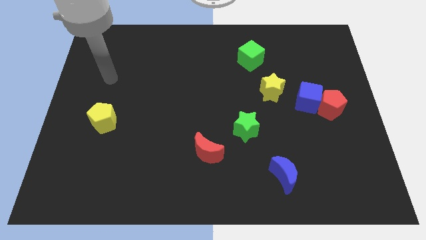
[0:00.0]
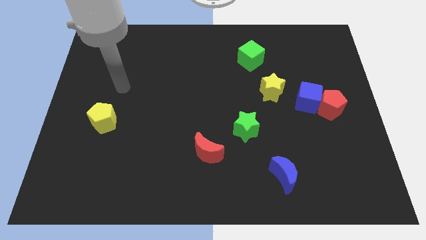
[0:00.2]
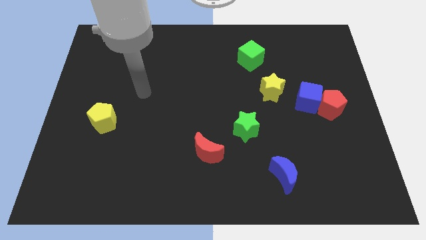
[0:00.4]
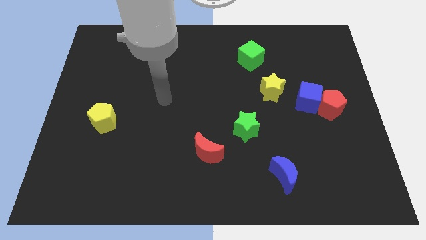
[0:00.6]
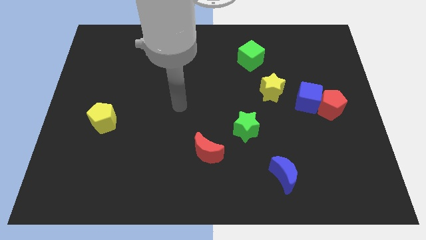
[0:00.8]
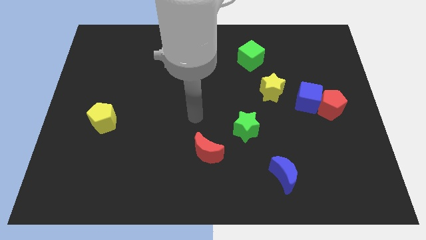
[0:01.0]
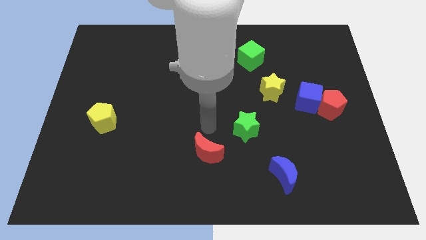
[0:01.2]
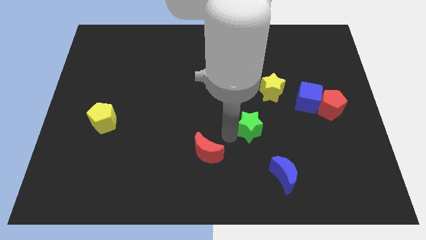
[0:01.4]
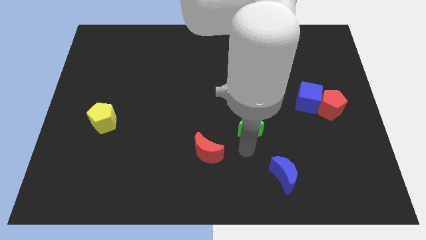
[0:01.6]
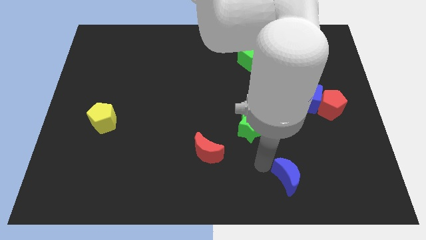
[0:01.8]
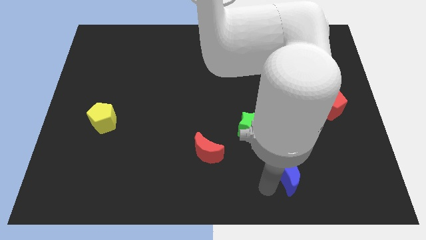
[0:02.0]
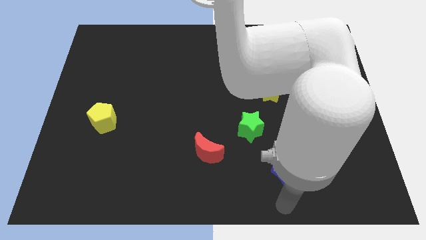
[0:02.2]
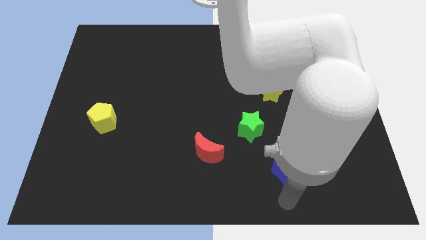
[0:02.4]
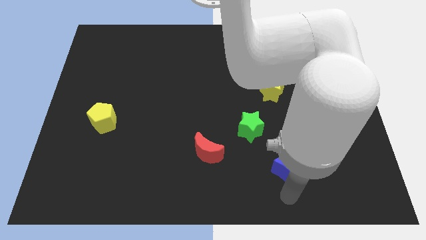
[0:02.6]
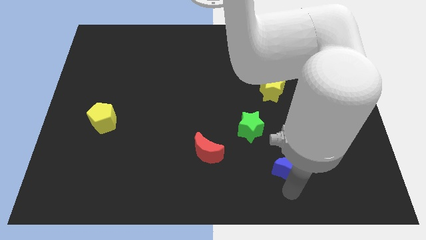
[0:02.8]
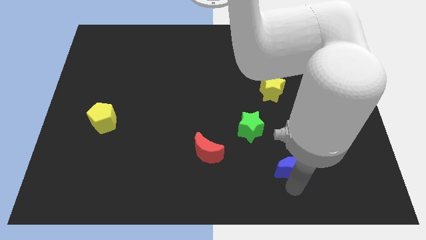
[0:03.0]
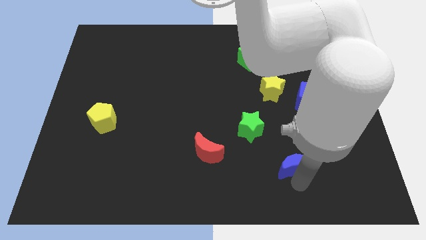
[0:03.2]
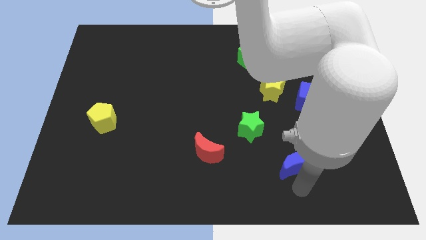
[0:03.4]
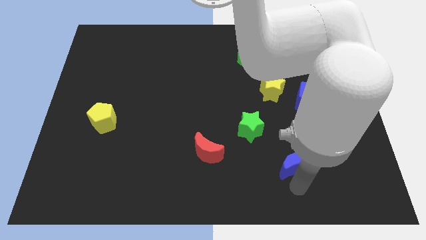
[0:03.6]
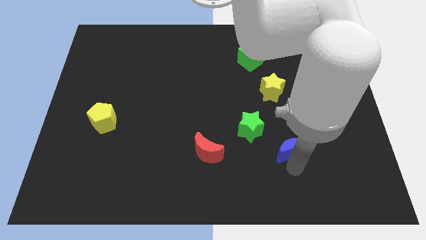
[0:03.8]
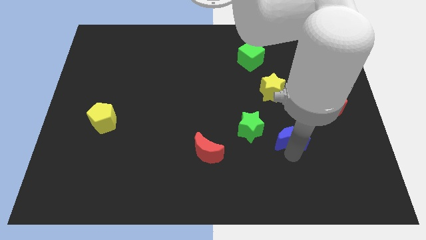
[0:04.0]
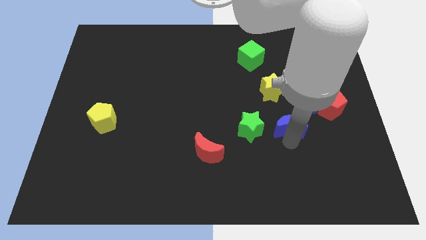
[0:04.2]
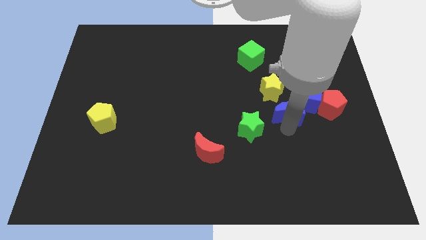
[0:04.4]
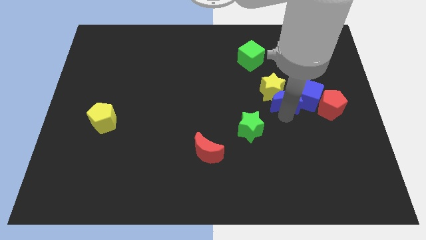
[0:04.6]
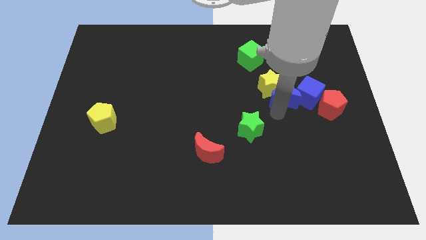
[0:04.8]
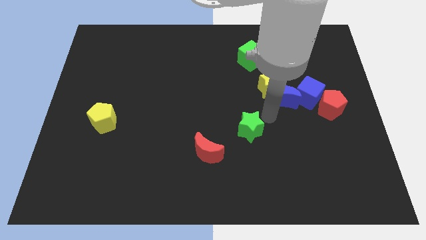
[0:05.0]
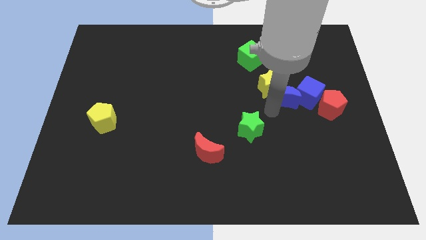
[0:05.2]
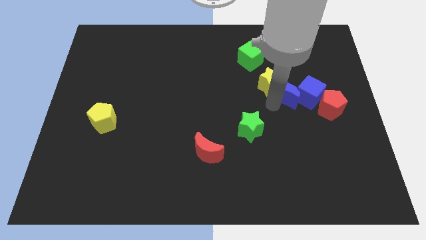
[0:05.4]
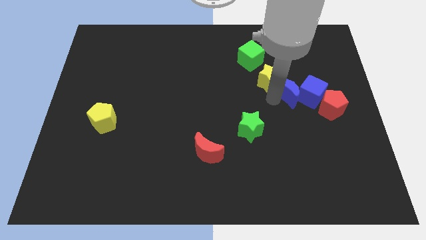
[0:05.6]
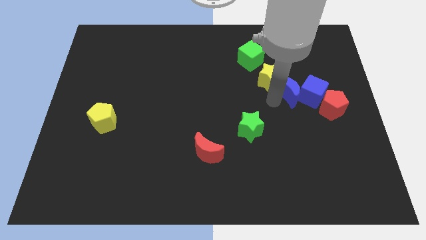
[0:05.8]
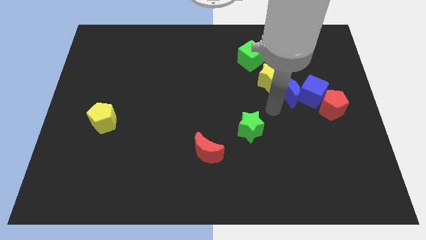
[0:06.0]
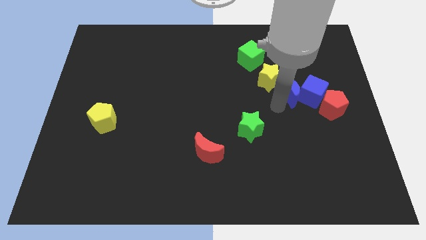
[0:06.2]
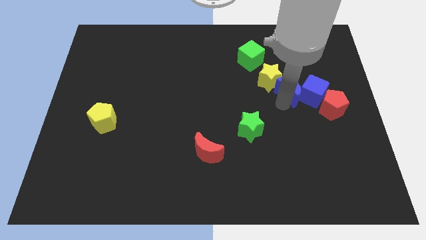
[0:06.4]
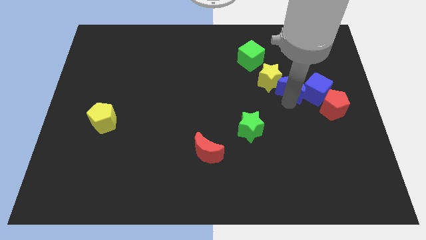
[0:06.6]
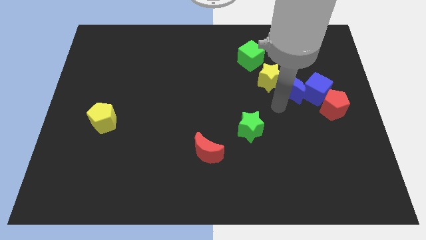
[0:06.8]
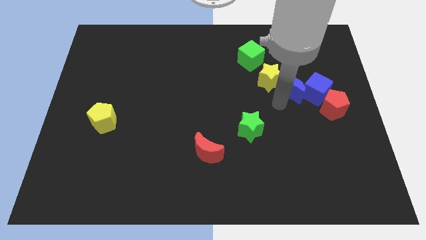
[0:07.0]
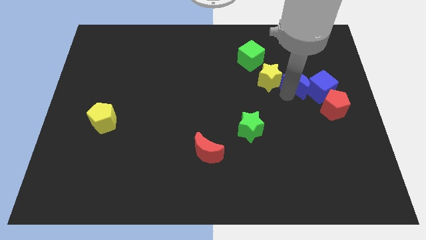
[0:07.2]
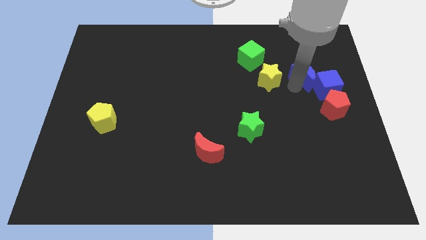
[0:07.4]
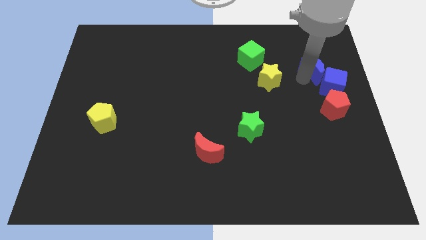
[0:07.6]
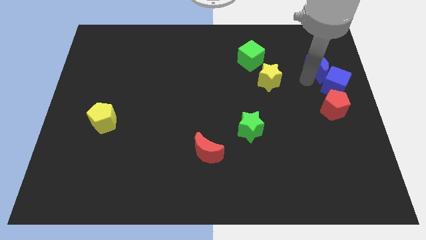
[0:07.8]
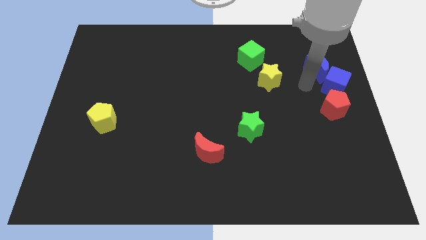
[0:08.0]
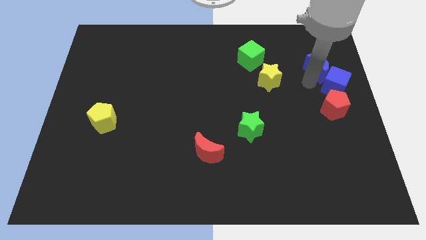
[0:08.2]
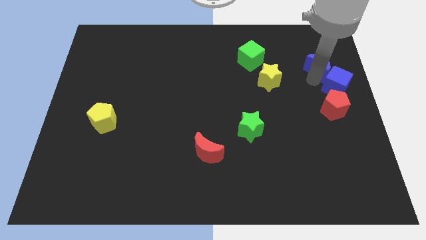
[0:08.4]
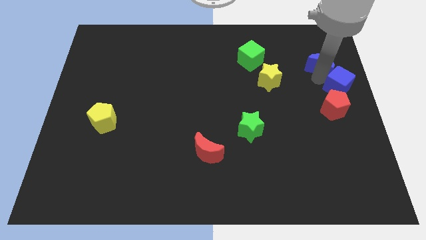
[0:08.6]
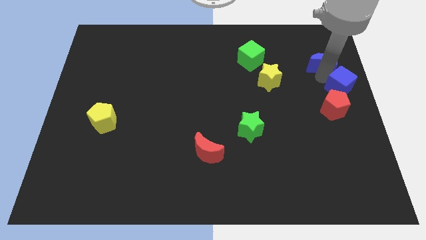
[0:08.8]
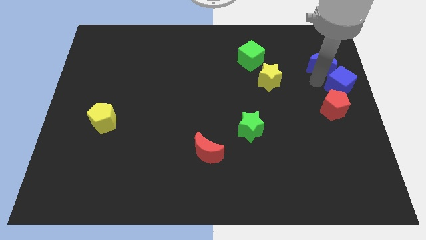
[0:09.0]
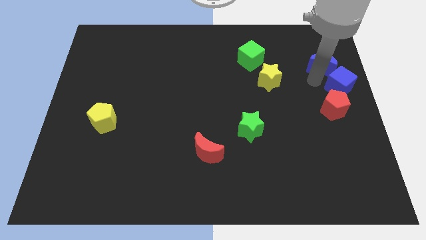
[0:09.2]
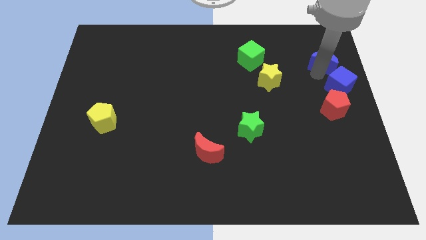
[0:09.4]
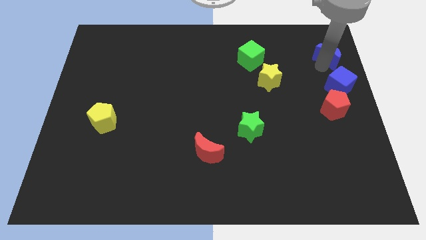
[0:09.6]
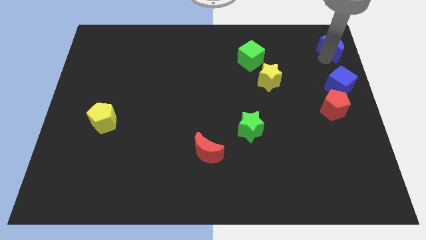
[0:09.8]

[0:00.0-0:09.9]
push the blue moon to the upper right corner

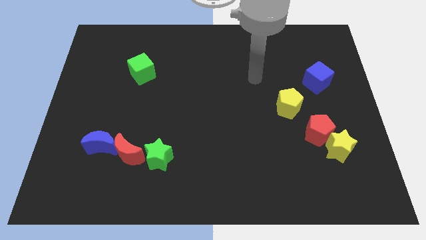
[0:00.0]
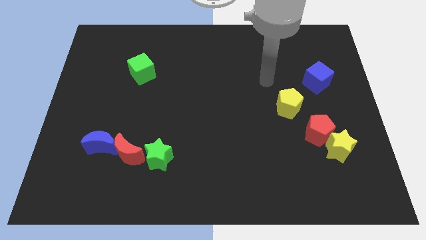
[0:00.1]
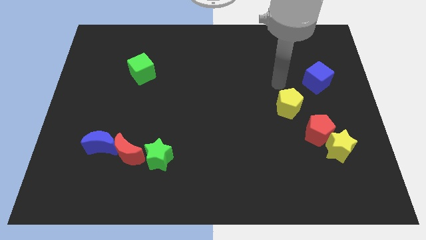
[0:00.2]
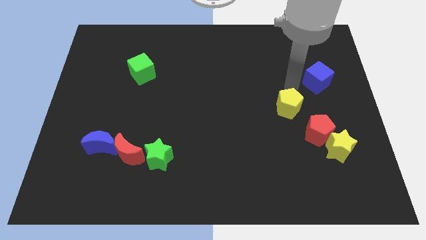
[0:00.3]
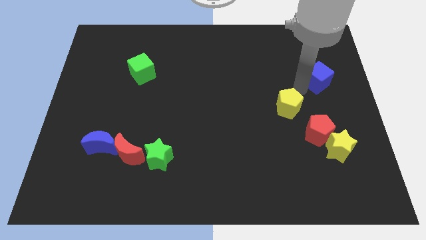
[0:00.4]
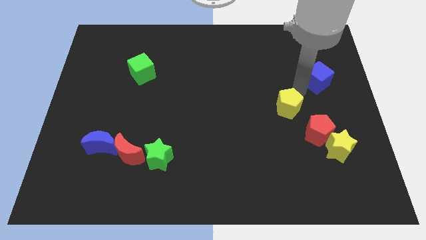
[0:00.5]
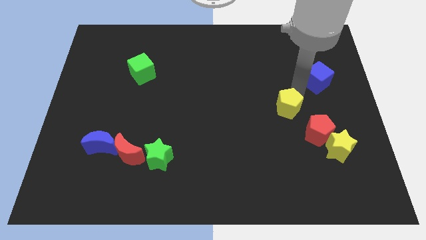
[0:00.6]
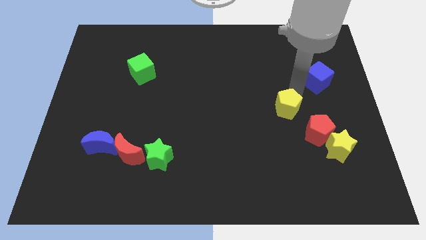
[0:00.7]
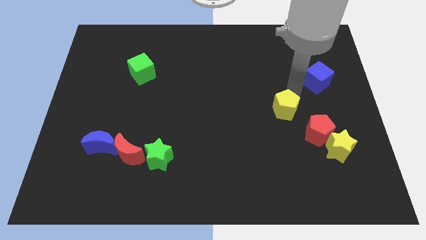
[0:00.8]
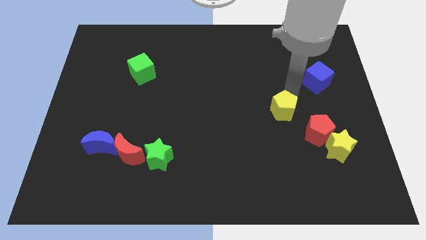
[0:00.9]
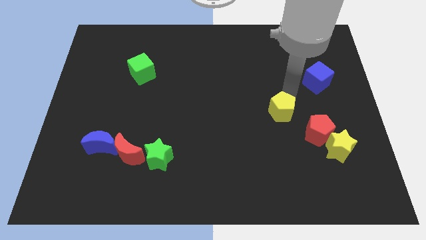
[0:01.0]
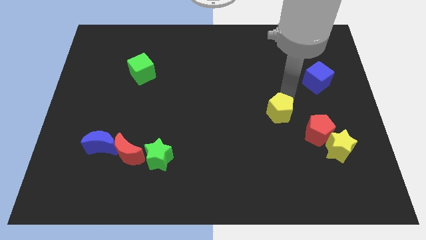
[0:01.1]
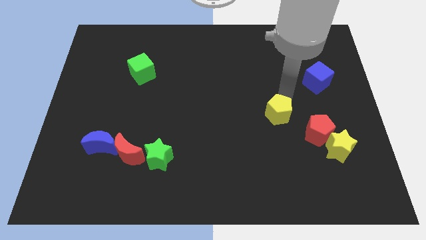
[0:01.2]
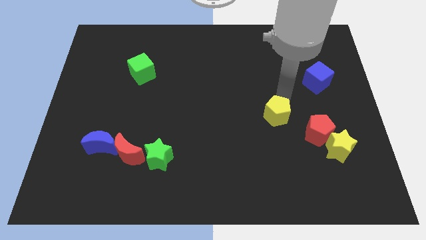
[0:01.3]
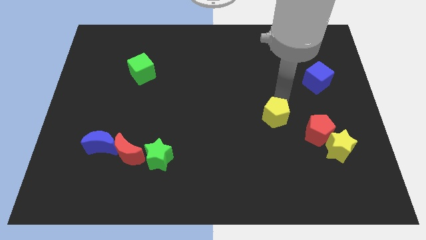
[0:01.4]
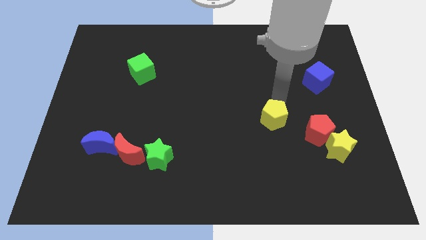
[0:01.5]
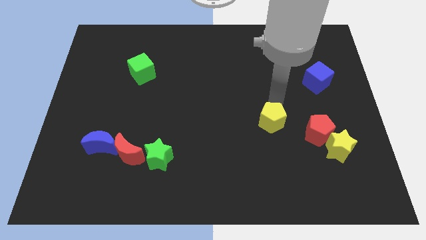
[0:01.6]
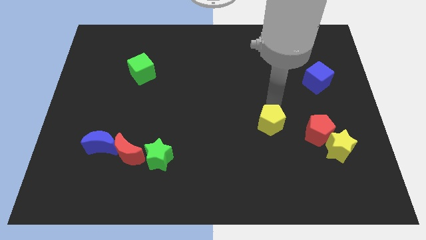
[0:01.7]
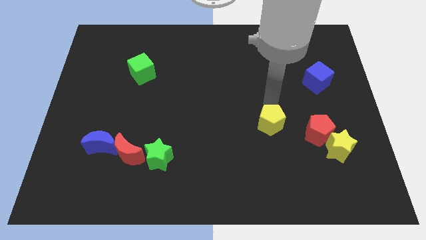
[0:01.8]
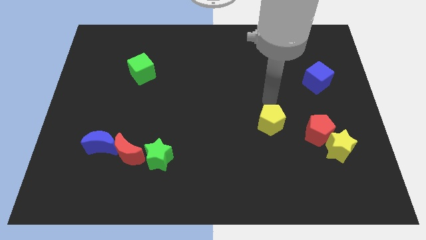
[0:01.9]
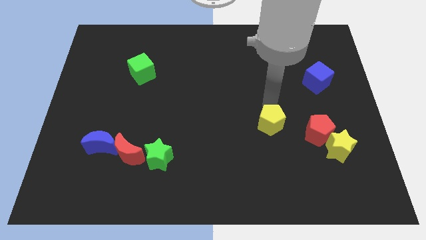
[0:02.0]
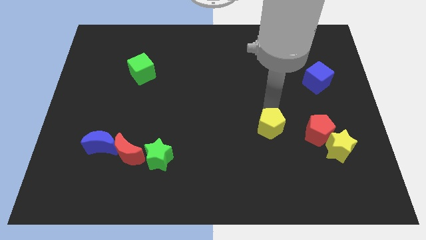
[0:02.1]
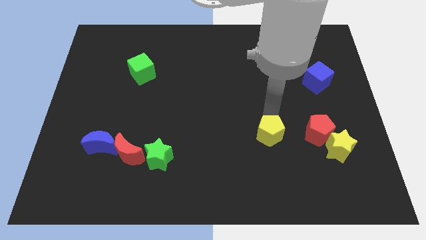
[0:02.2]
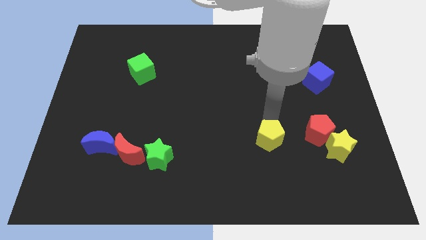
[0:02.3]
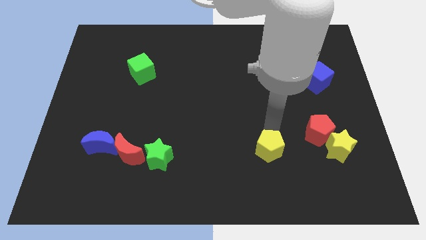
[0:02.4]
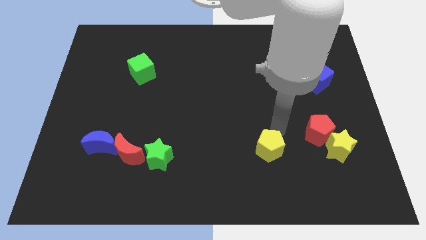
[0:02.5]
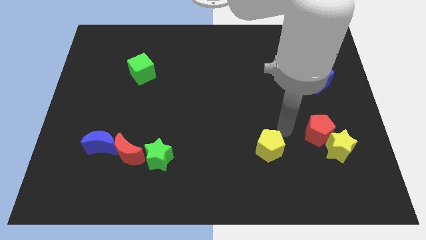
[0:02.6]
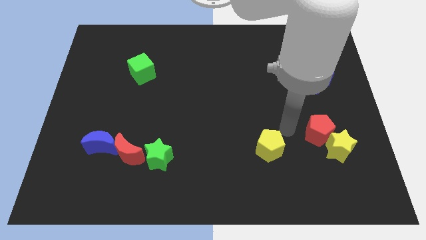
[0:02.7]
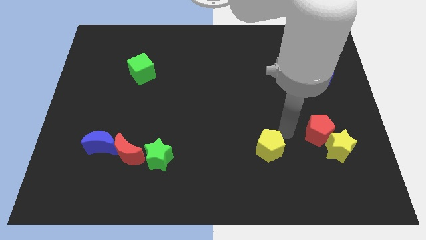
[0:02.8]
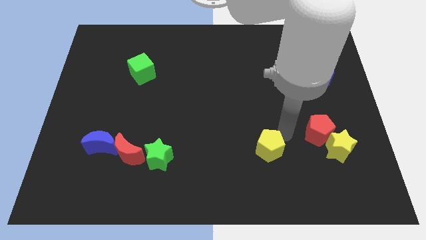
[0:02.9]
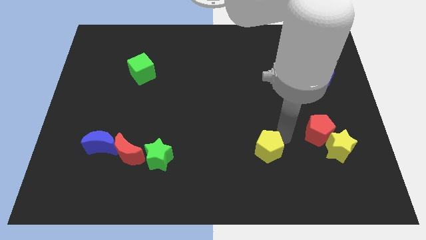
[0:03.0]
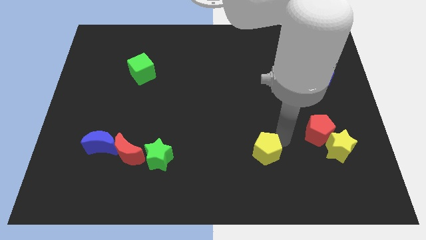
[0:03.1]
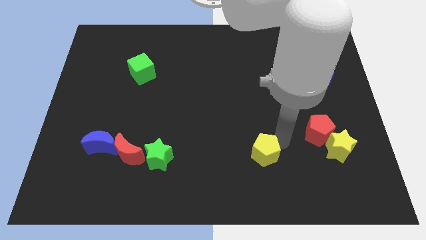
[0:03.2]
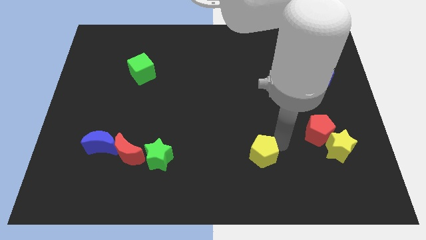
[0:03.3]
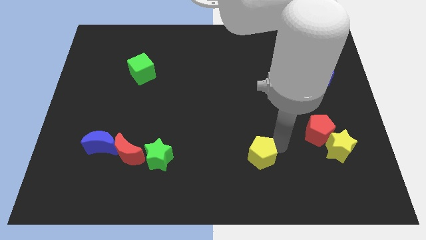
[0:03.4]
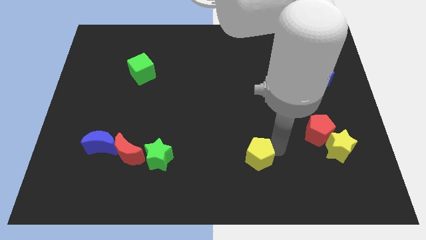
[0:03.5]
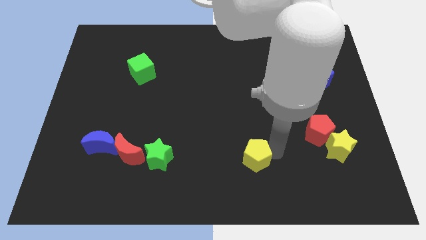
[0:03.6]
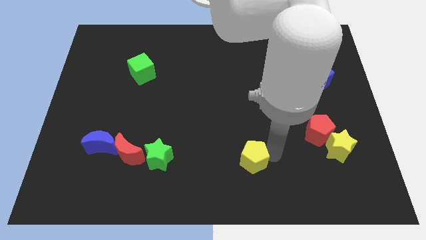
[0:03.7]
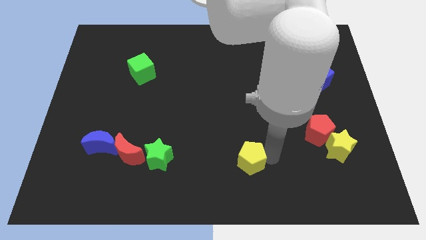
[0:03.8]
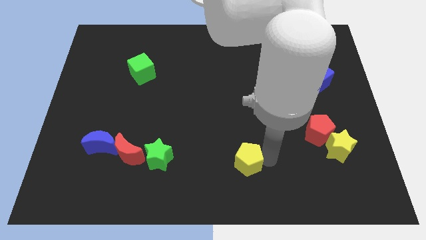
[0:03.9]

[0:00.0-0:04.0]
put the yellow pentagon to the bottom
